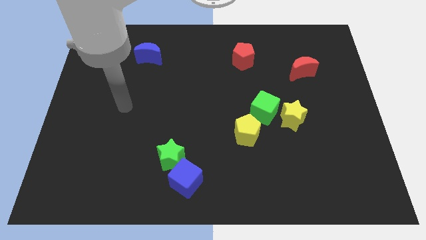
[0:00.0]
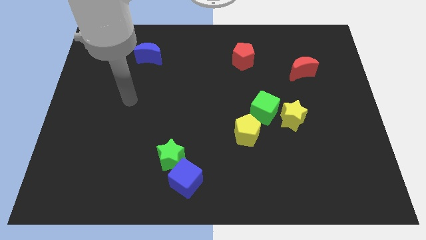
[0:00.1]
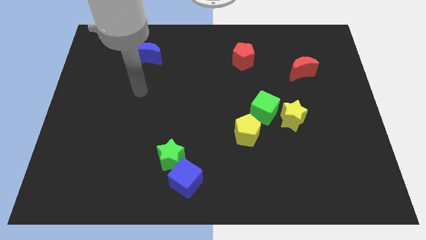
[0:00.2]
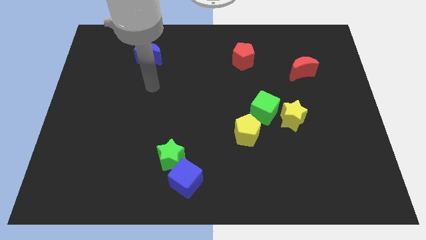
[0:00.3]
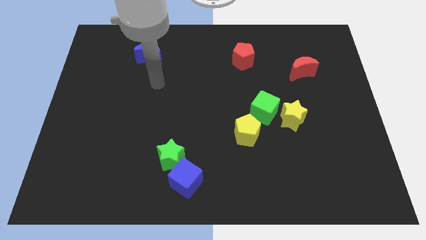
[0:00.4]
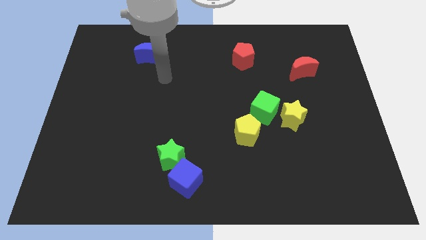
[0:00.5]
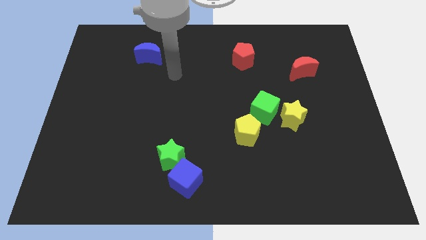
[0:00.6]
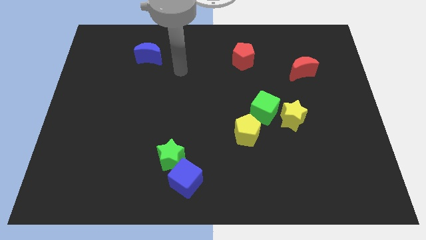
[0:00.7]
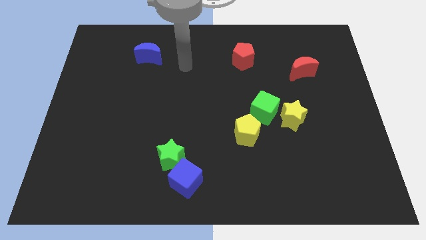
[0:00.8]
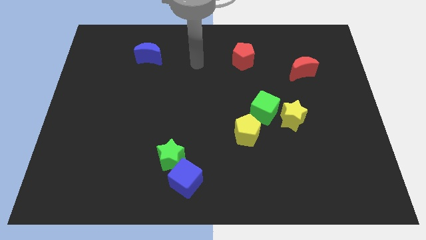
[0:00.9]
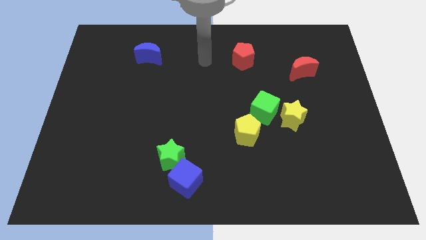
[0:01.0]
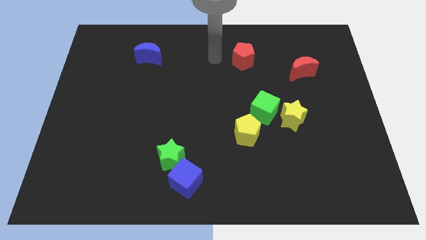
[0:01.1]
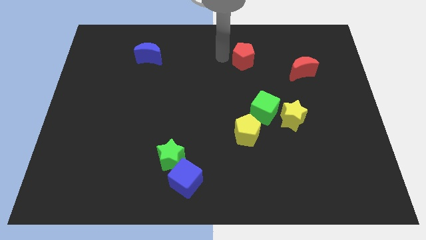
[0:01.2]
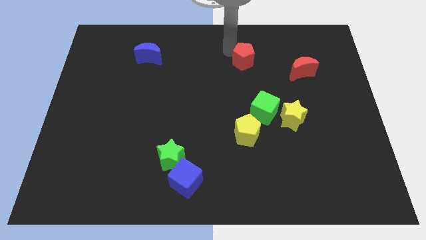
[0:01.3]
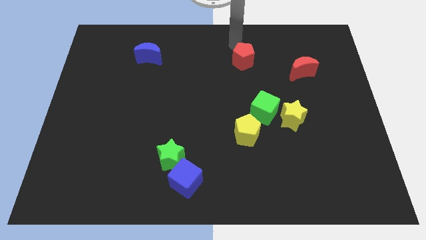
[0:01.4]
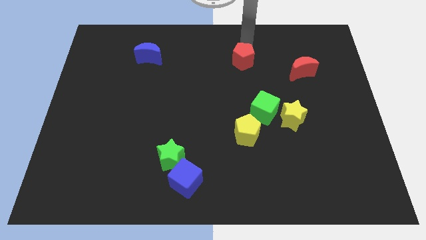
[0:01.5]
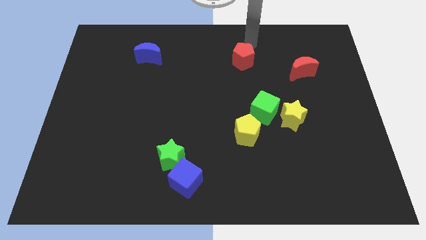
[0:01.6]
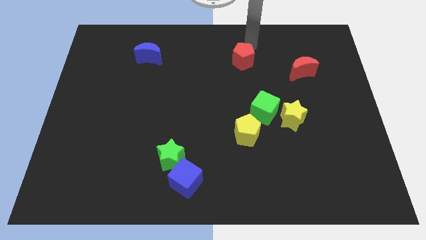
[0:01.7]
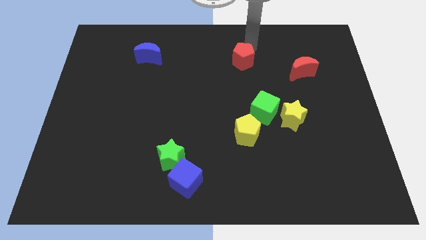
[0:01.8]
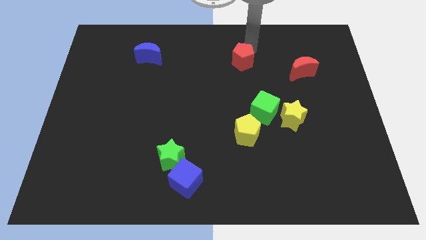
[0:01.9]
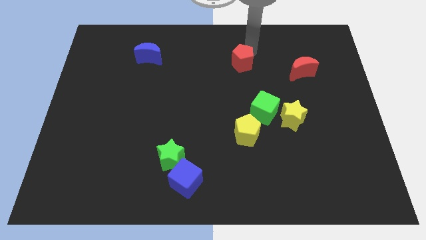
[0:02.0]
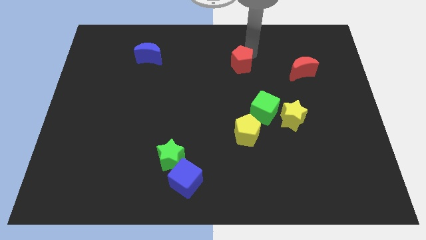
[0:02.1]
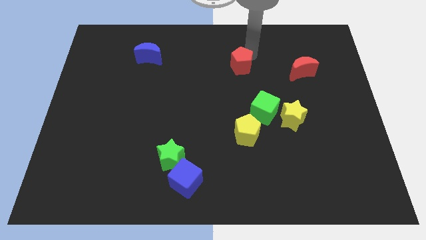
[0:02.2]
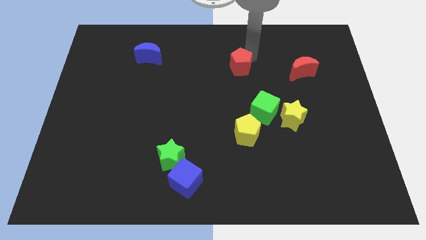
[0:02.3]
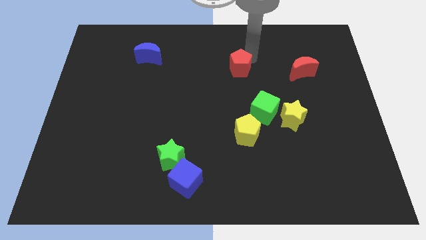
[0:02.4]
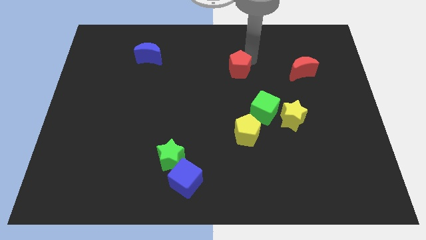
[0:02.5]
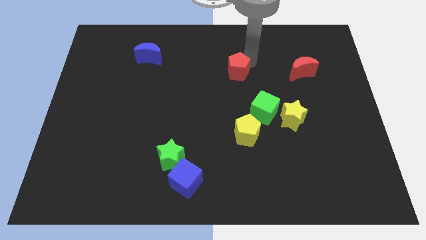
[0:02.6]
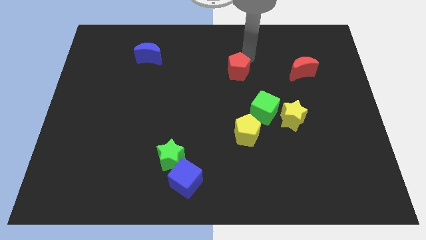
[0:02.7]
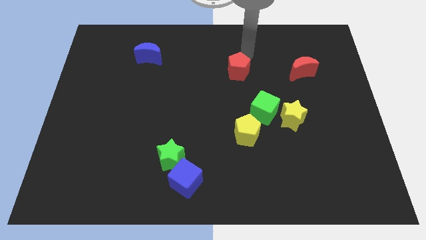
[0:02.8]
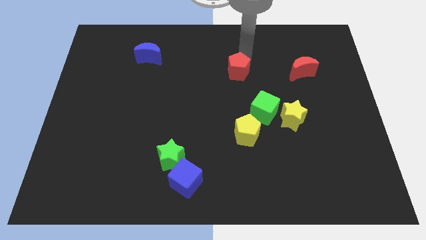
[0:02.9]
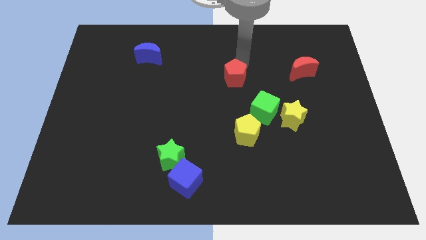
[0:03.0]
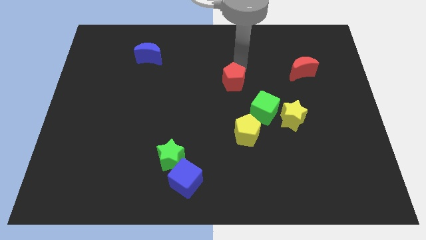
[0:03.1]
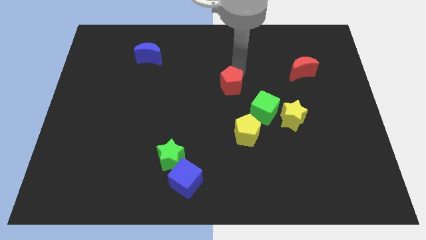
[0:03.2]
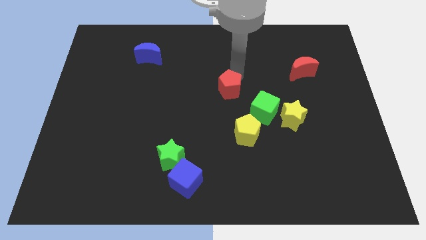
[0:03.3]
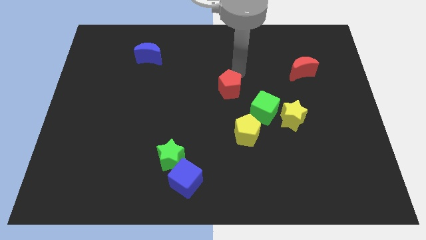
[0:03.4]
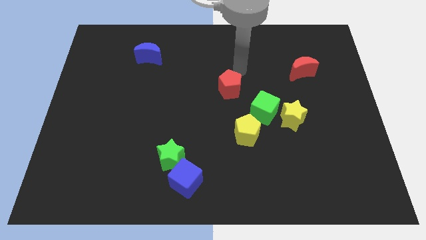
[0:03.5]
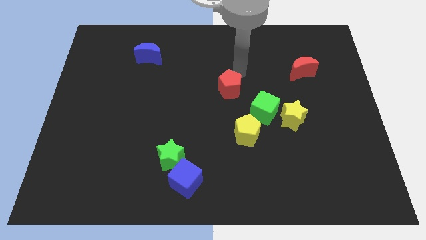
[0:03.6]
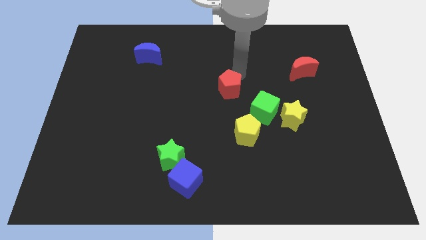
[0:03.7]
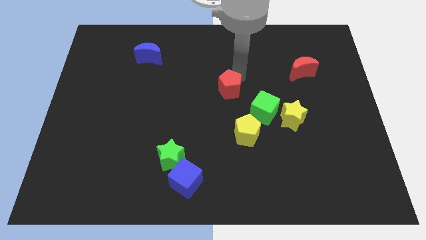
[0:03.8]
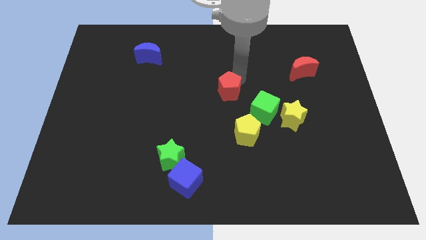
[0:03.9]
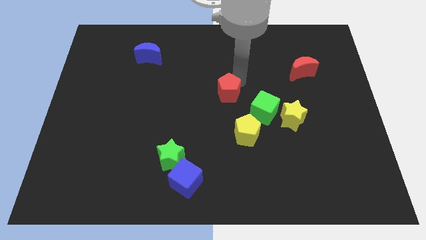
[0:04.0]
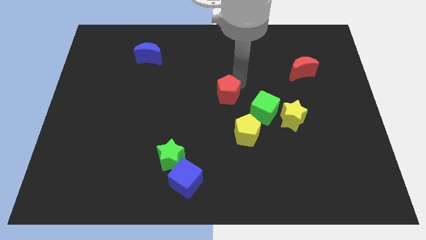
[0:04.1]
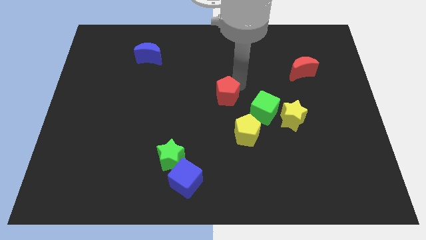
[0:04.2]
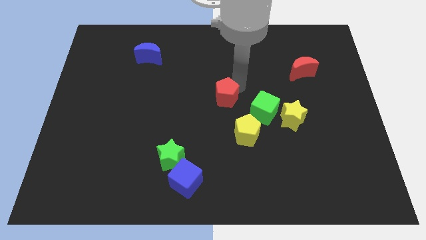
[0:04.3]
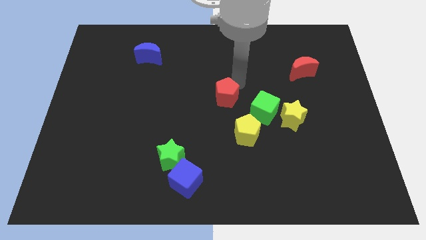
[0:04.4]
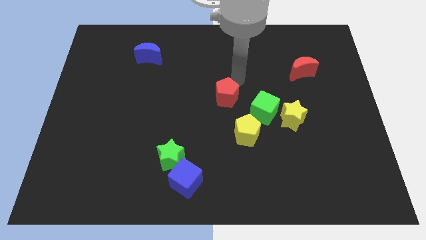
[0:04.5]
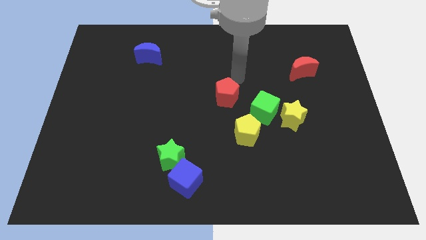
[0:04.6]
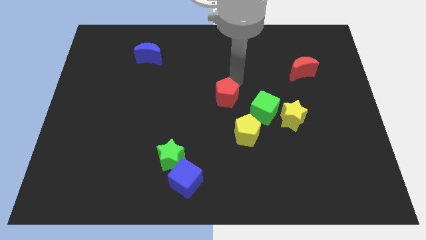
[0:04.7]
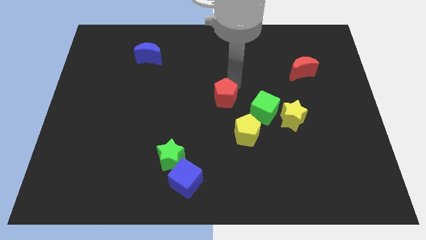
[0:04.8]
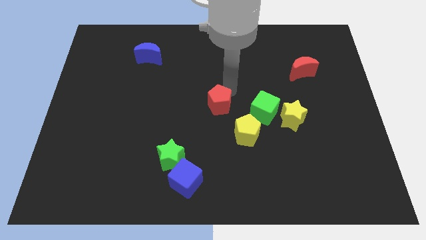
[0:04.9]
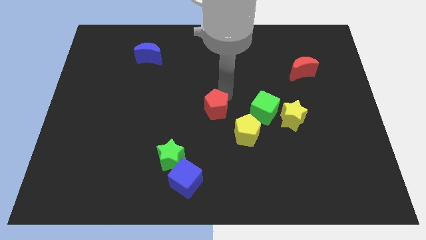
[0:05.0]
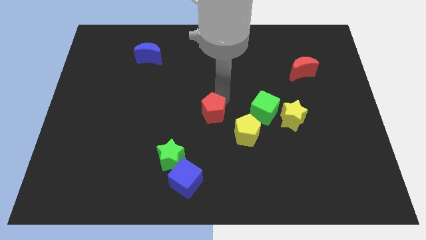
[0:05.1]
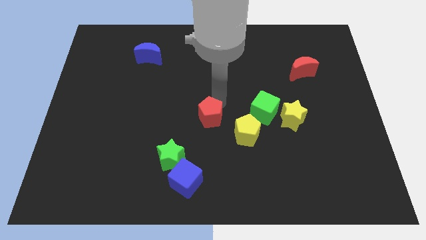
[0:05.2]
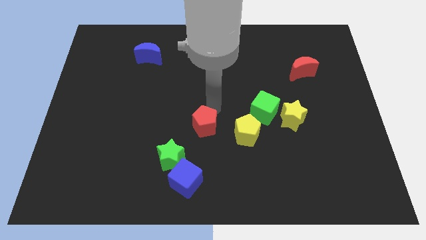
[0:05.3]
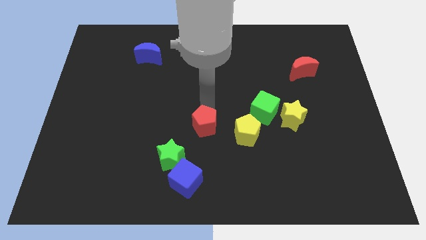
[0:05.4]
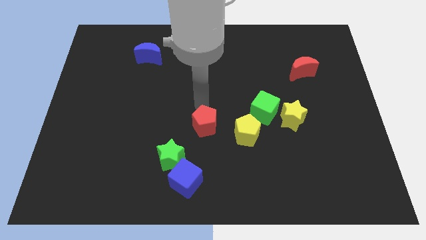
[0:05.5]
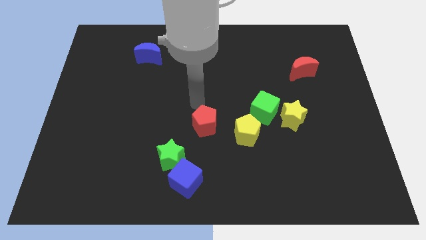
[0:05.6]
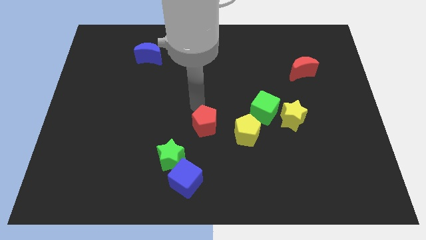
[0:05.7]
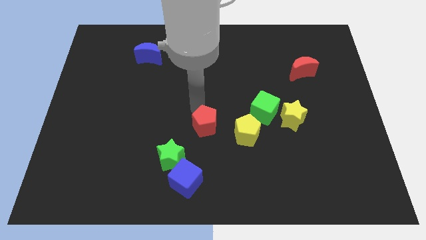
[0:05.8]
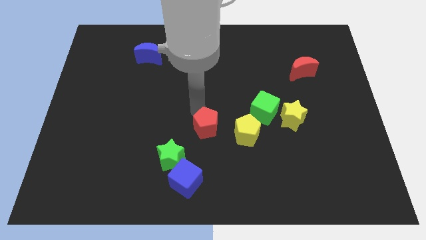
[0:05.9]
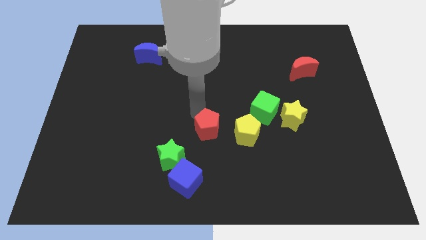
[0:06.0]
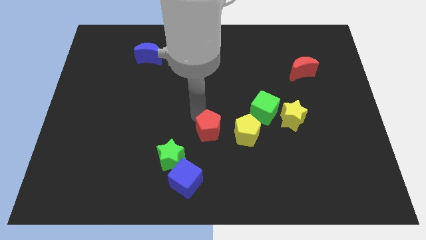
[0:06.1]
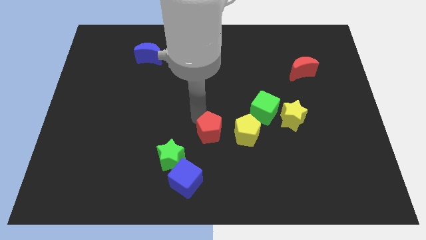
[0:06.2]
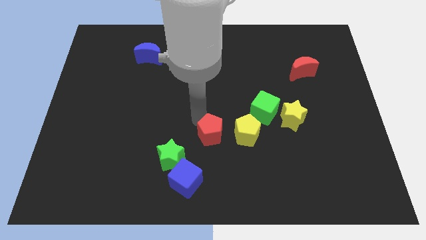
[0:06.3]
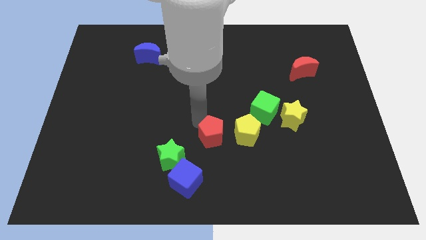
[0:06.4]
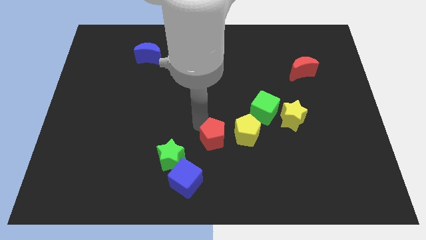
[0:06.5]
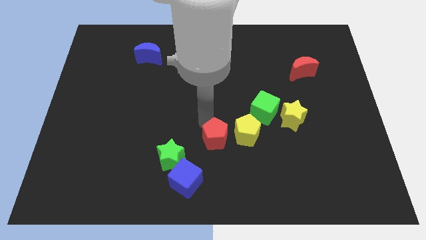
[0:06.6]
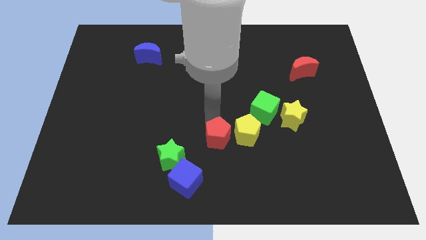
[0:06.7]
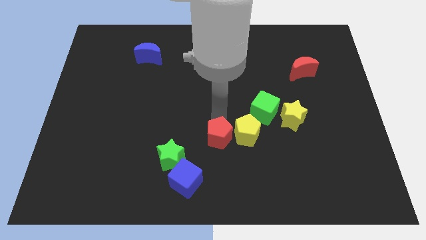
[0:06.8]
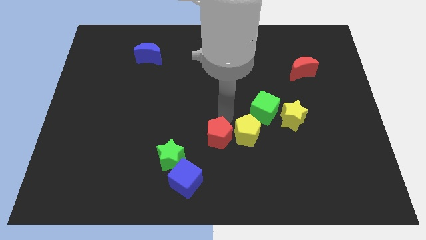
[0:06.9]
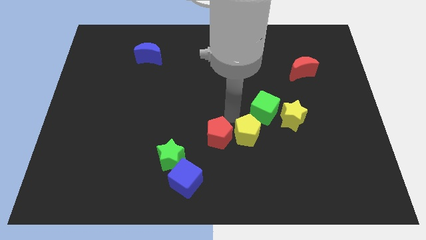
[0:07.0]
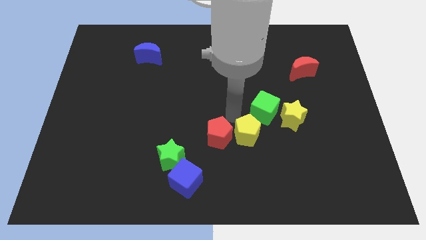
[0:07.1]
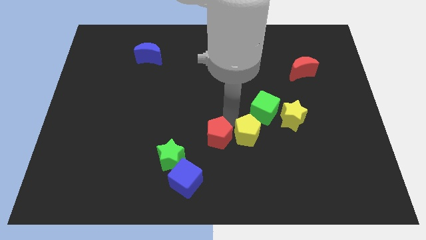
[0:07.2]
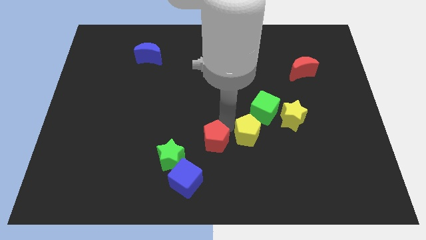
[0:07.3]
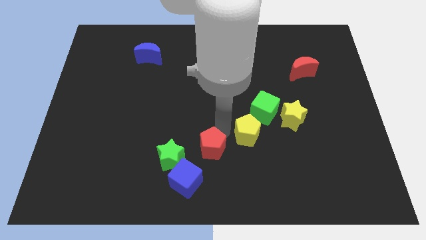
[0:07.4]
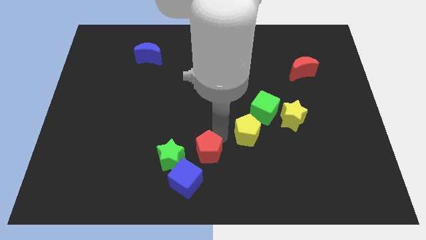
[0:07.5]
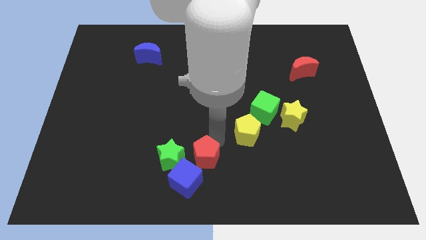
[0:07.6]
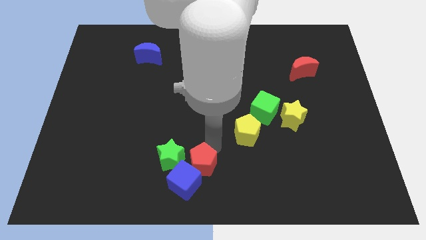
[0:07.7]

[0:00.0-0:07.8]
move the red pentagon next to the blue cube
